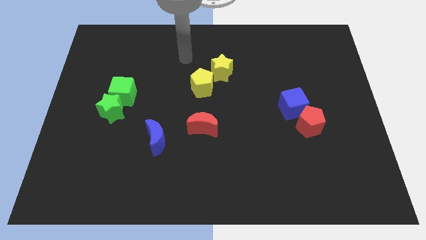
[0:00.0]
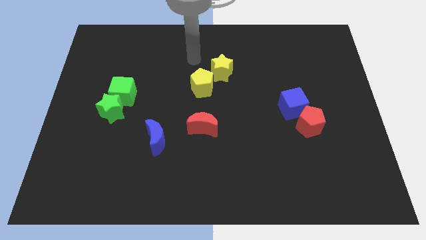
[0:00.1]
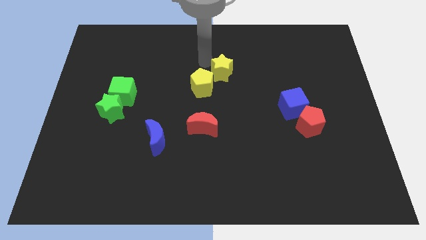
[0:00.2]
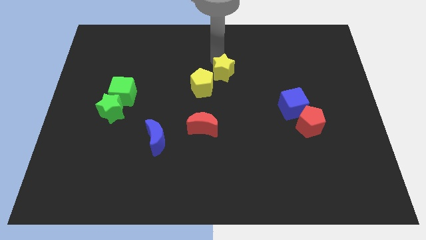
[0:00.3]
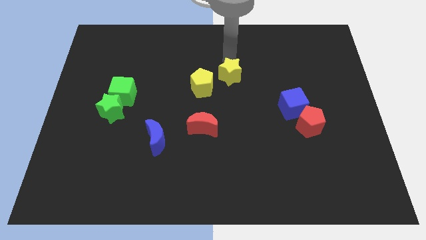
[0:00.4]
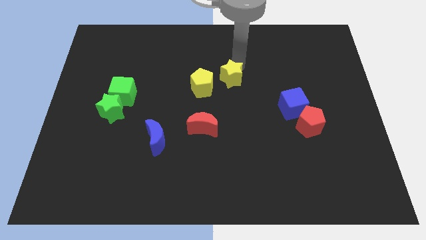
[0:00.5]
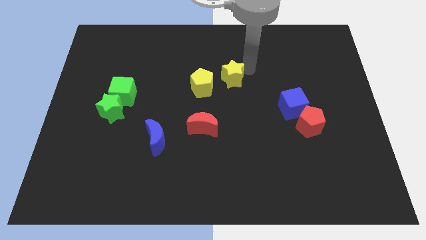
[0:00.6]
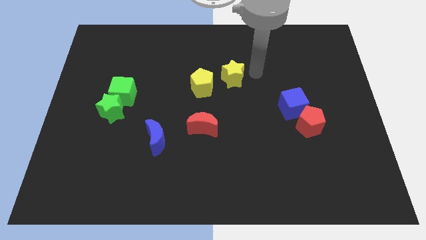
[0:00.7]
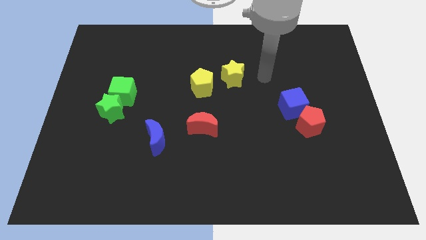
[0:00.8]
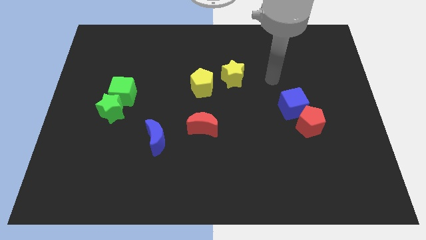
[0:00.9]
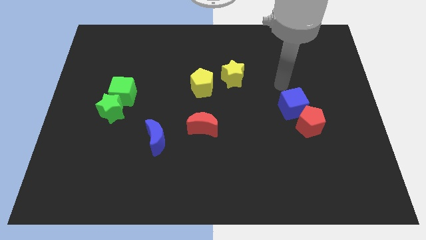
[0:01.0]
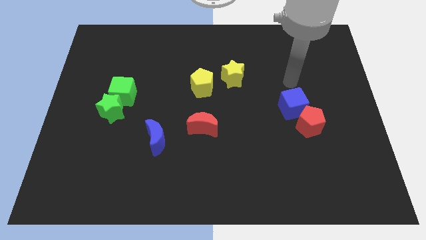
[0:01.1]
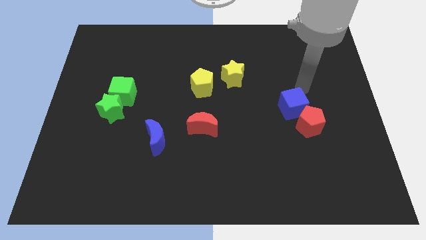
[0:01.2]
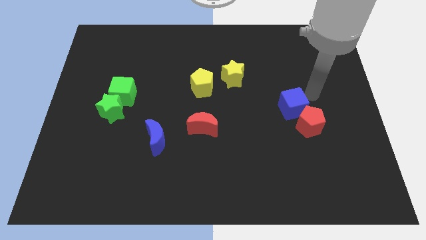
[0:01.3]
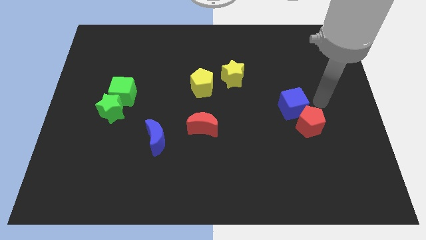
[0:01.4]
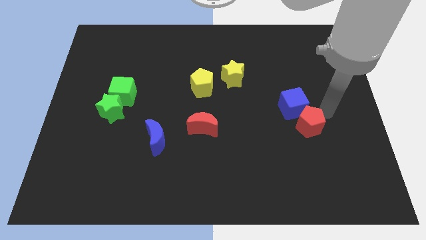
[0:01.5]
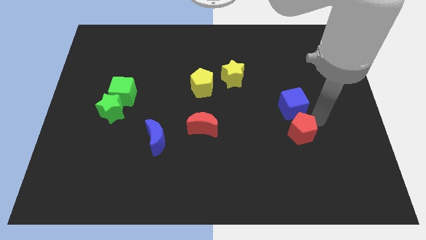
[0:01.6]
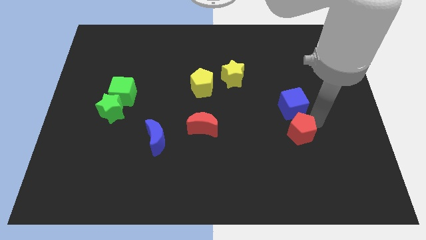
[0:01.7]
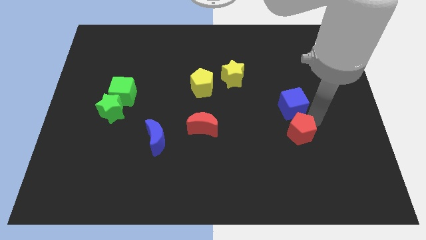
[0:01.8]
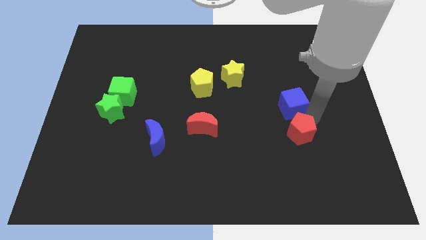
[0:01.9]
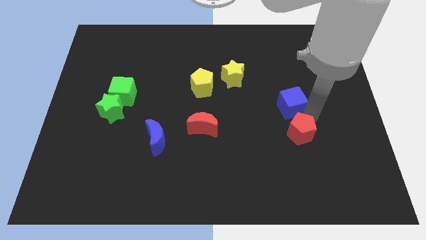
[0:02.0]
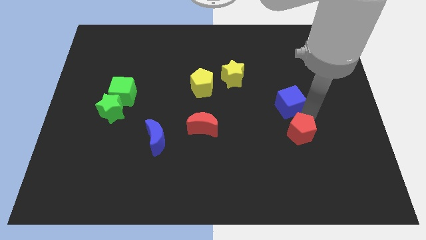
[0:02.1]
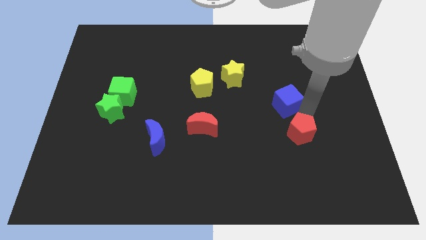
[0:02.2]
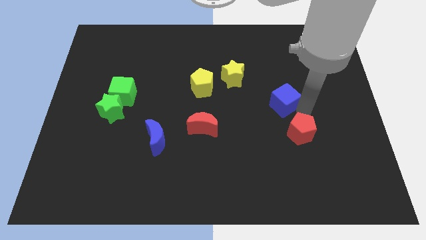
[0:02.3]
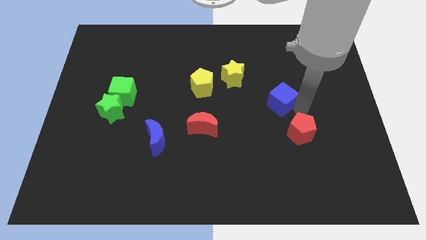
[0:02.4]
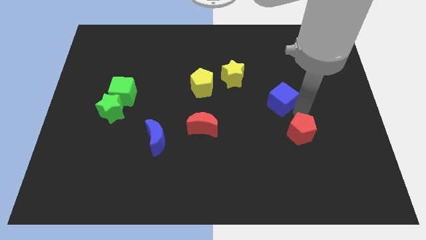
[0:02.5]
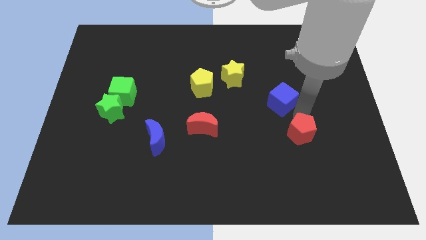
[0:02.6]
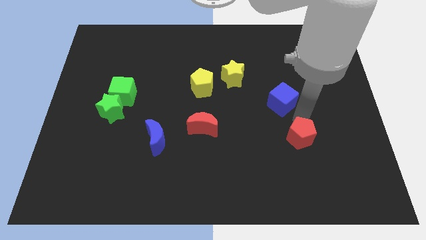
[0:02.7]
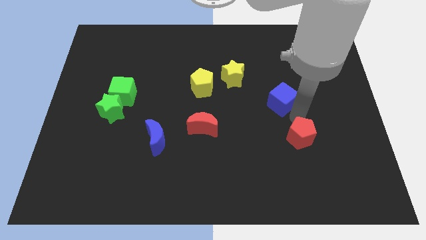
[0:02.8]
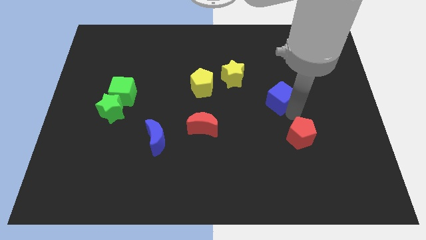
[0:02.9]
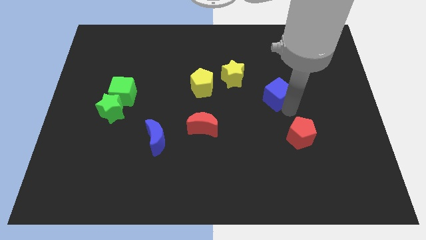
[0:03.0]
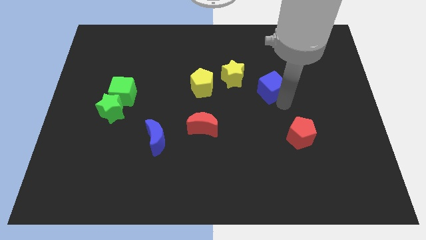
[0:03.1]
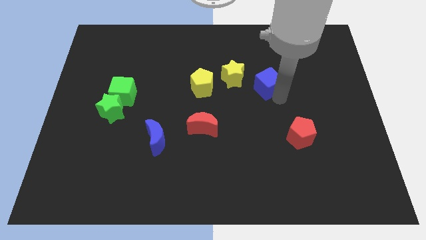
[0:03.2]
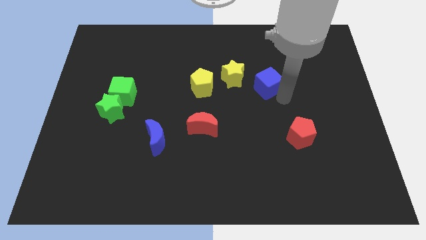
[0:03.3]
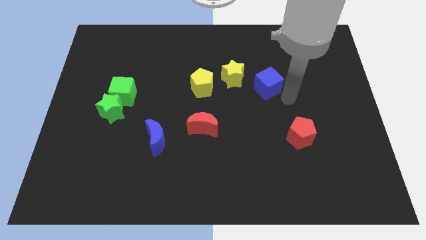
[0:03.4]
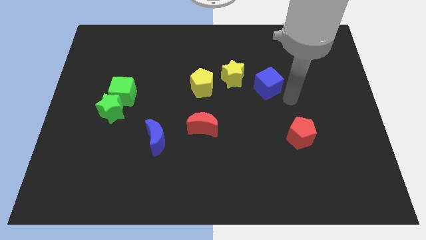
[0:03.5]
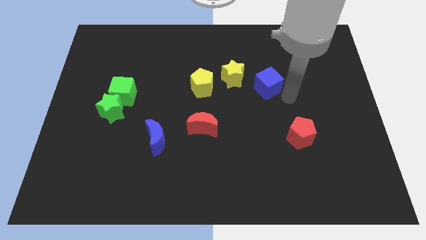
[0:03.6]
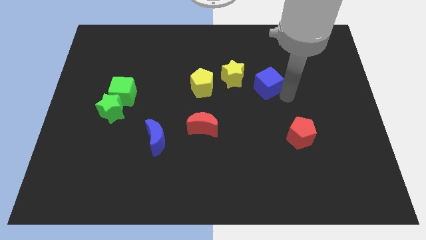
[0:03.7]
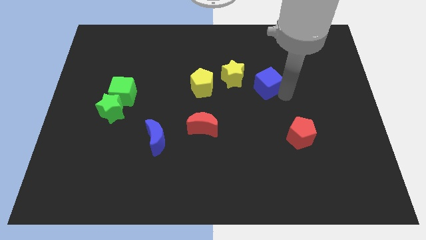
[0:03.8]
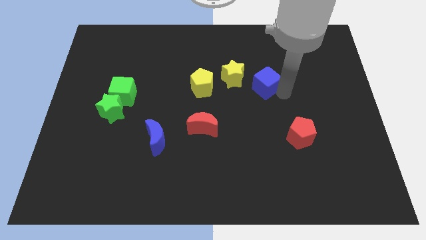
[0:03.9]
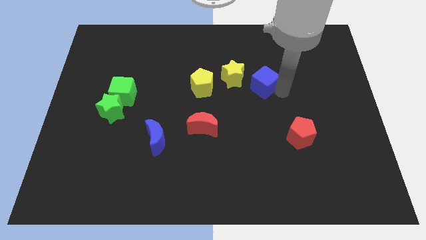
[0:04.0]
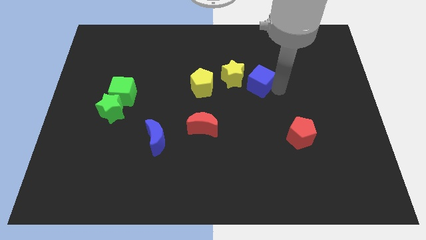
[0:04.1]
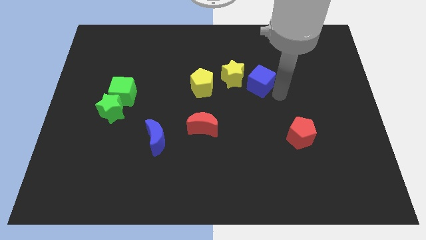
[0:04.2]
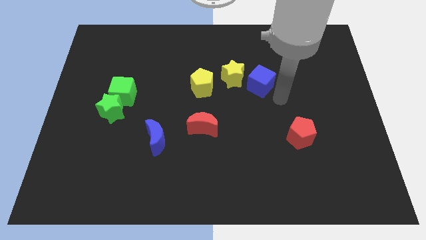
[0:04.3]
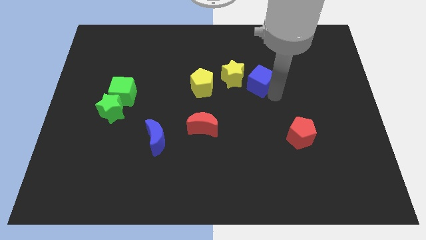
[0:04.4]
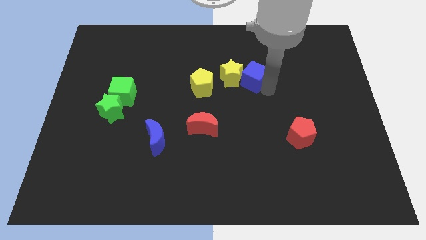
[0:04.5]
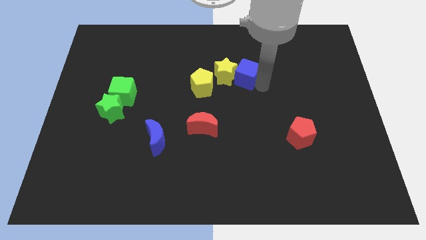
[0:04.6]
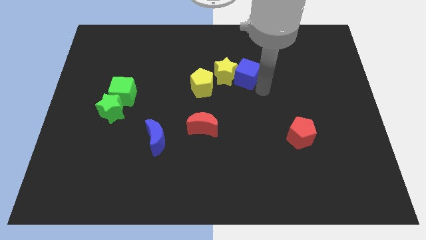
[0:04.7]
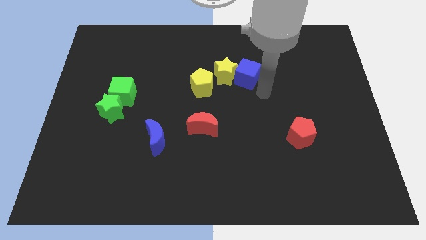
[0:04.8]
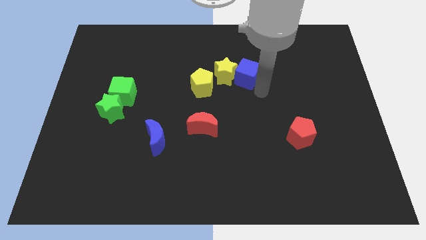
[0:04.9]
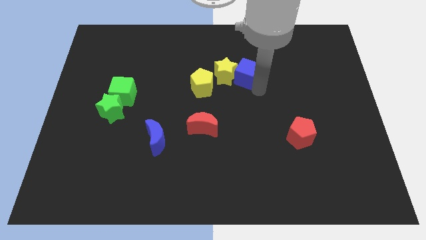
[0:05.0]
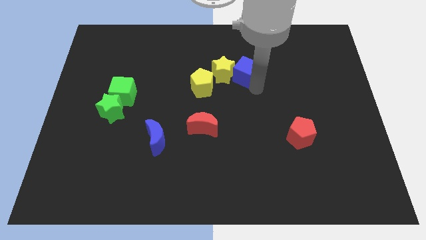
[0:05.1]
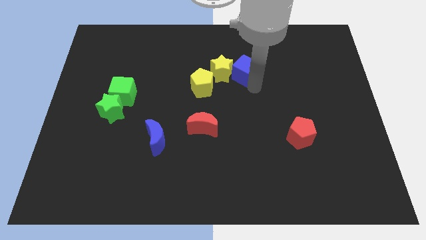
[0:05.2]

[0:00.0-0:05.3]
move the blue cube diagonally up and to the right of the yellow pentagon

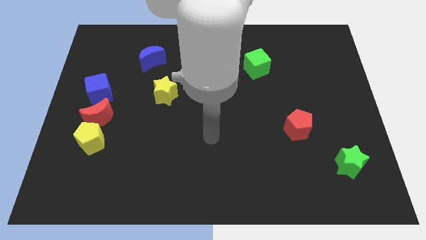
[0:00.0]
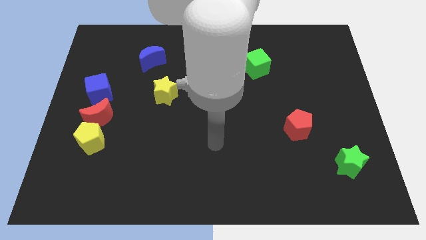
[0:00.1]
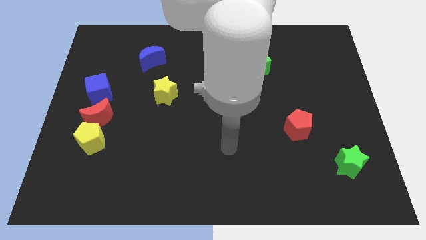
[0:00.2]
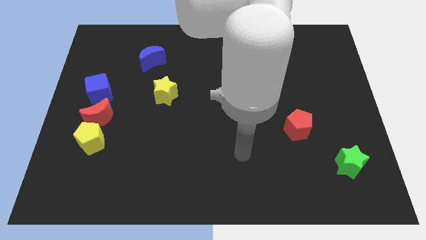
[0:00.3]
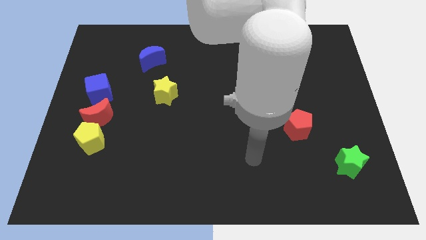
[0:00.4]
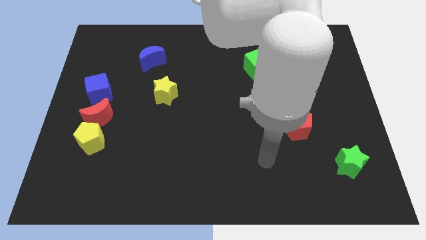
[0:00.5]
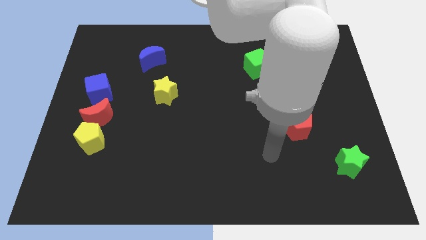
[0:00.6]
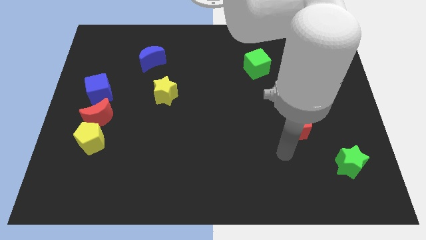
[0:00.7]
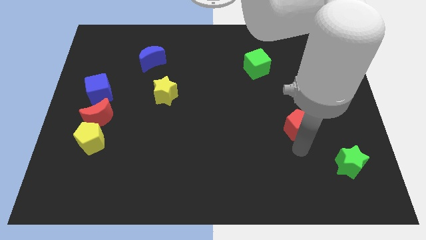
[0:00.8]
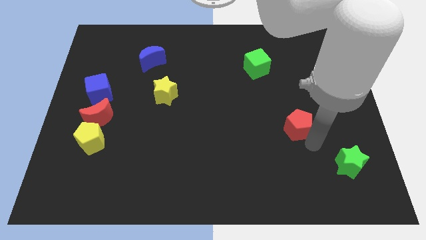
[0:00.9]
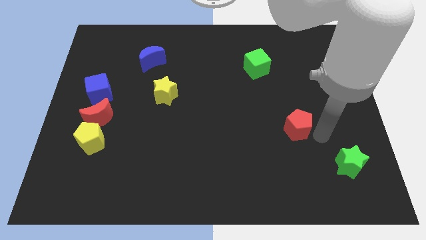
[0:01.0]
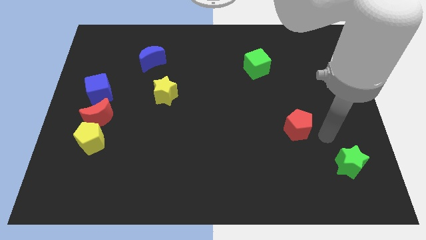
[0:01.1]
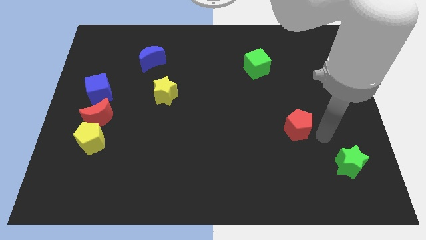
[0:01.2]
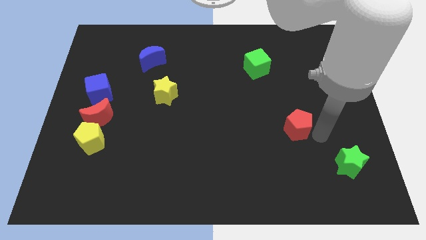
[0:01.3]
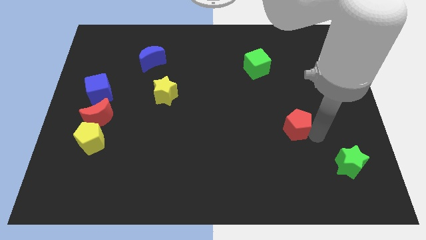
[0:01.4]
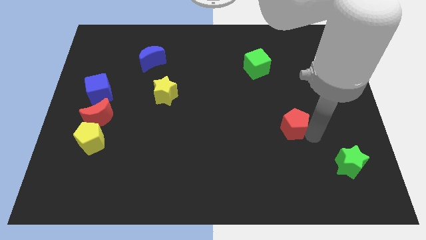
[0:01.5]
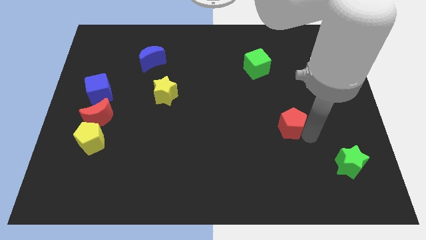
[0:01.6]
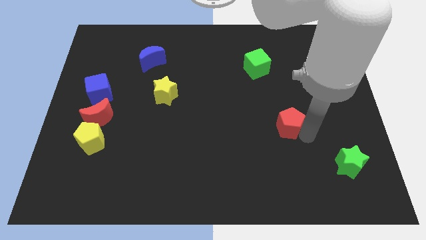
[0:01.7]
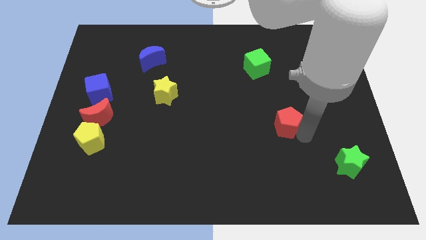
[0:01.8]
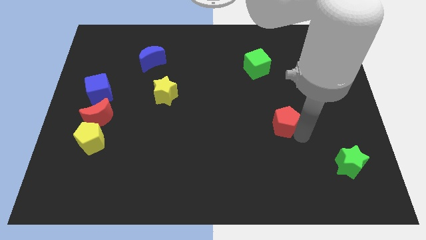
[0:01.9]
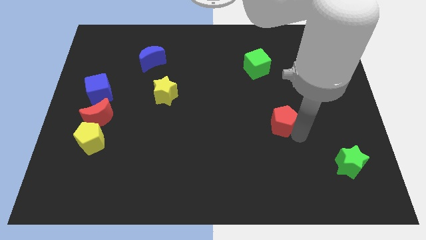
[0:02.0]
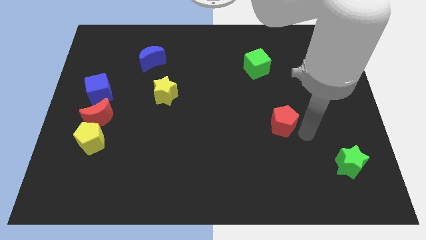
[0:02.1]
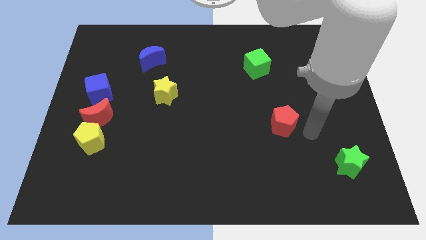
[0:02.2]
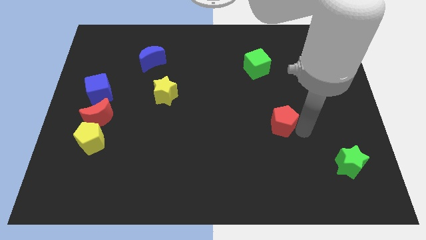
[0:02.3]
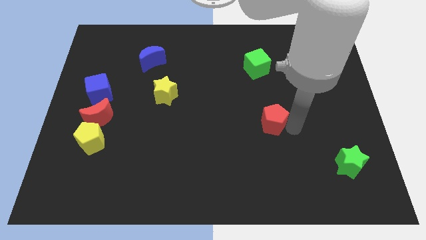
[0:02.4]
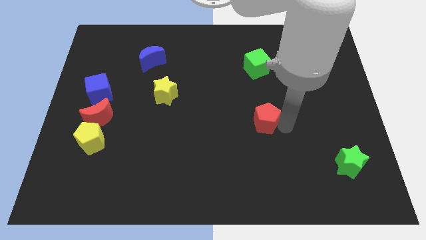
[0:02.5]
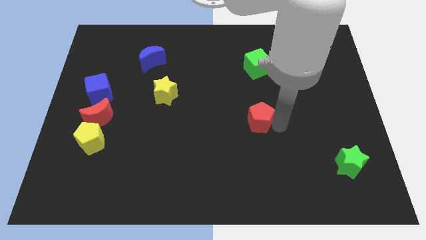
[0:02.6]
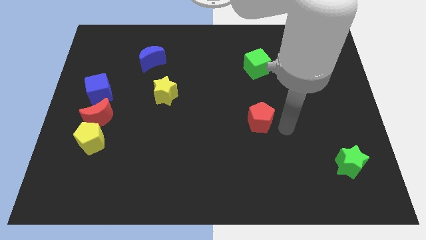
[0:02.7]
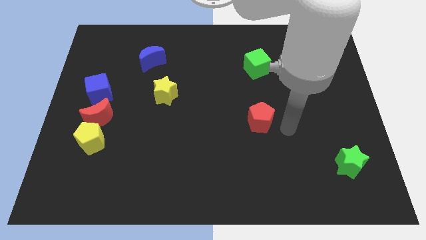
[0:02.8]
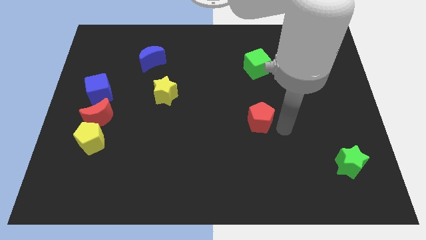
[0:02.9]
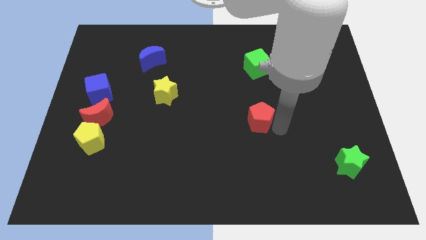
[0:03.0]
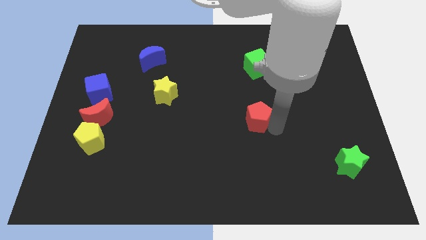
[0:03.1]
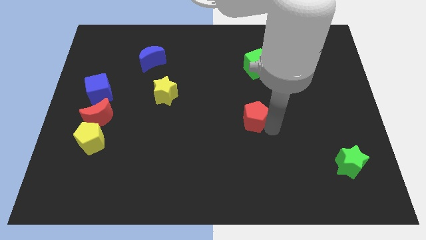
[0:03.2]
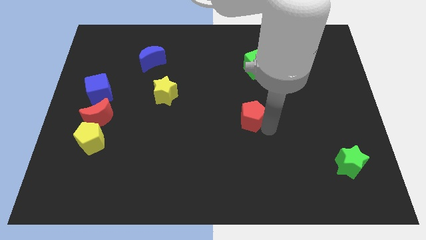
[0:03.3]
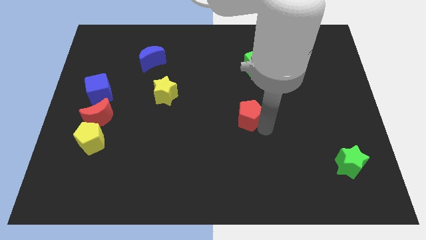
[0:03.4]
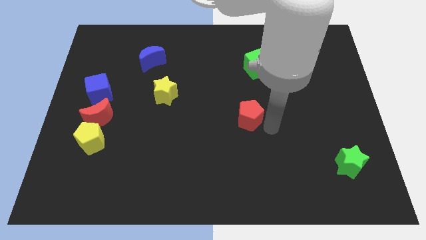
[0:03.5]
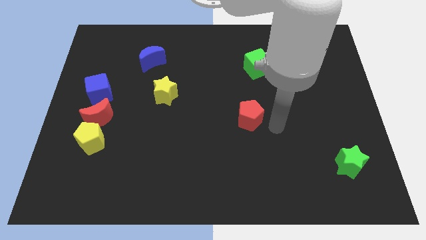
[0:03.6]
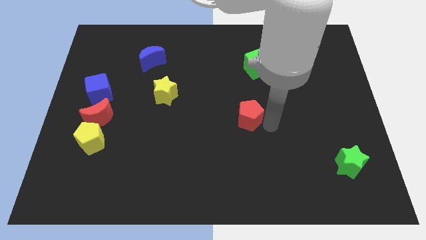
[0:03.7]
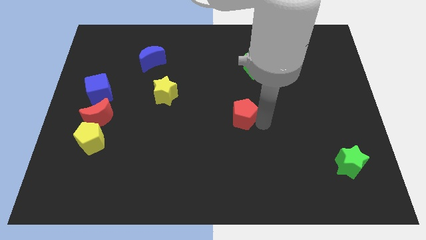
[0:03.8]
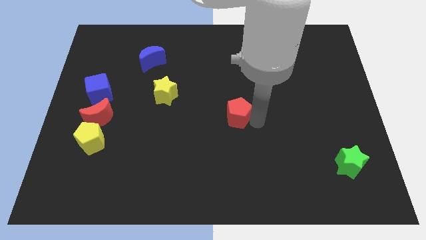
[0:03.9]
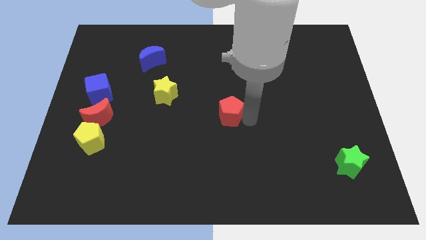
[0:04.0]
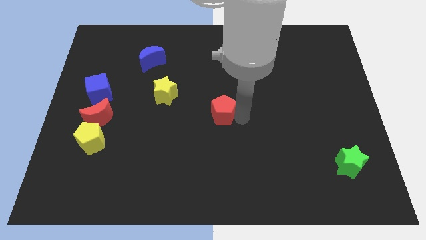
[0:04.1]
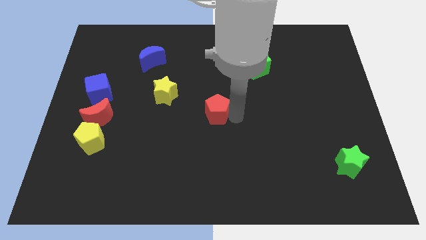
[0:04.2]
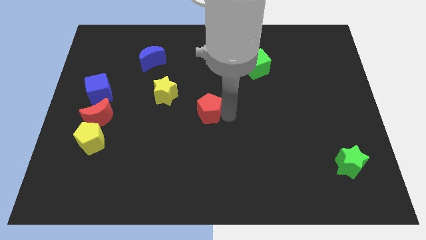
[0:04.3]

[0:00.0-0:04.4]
move the red pentagon diagonally down and to the right of the yellow star
